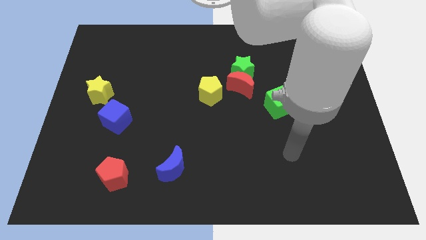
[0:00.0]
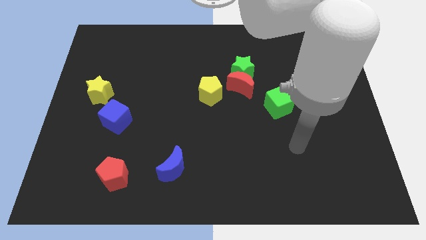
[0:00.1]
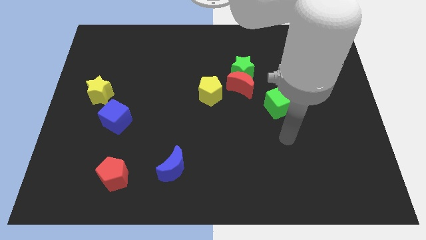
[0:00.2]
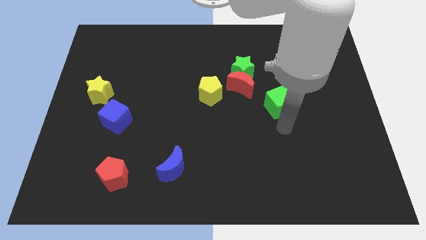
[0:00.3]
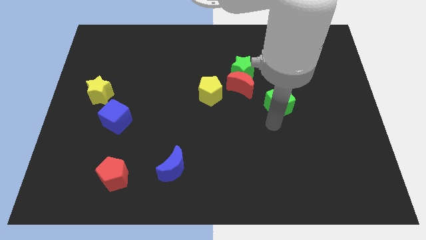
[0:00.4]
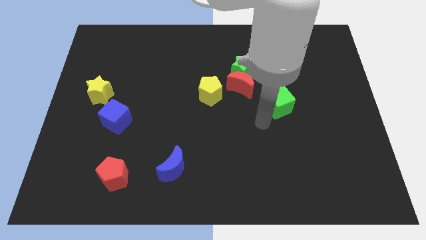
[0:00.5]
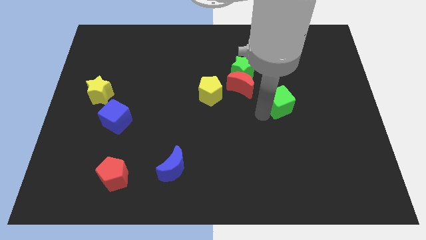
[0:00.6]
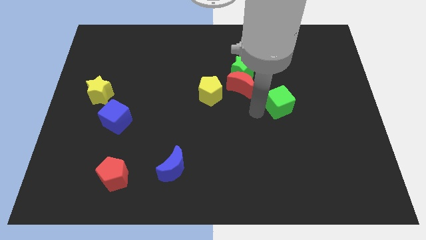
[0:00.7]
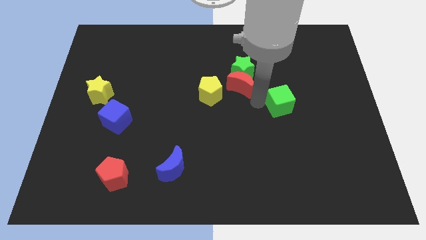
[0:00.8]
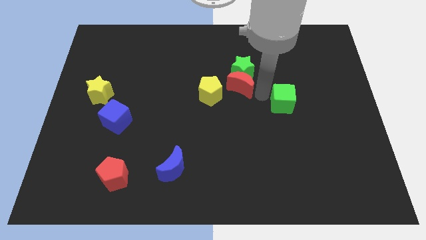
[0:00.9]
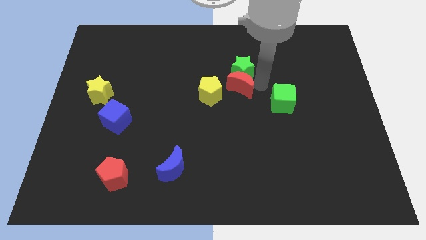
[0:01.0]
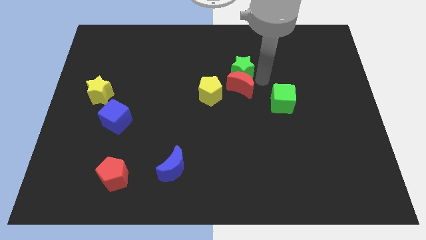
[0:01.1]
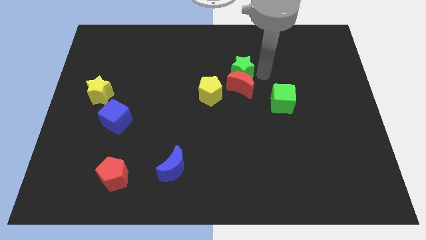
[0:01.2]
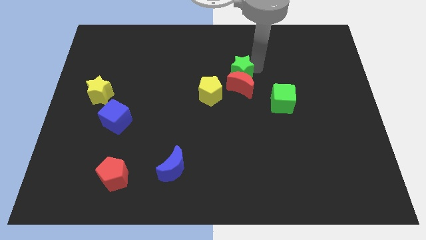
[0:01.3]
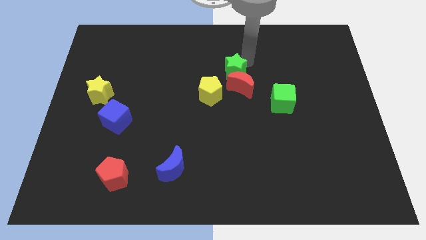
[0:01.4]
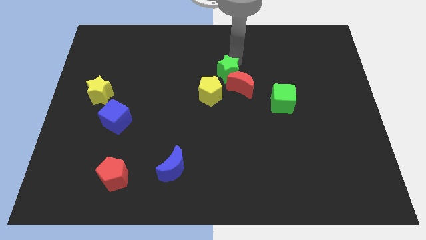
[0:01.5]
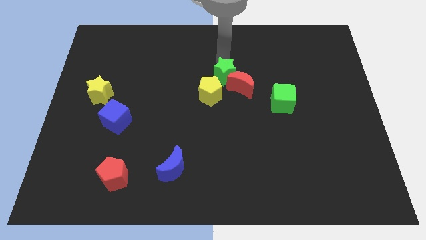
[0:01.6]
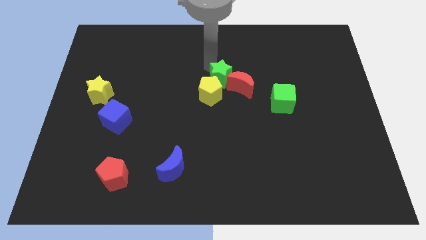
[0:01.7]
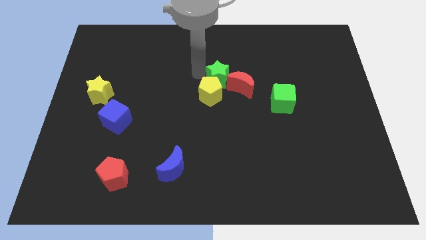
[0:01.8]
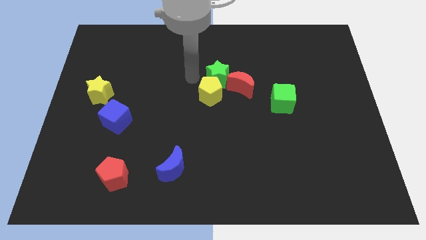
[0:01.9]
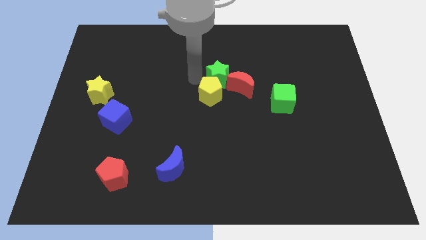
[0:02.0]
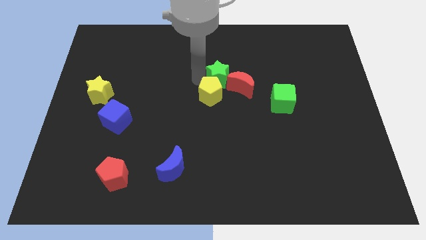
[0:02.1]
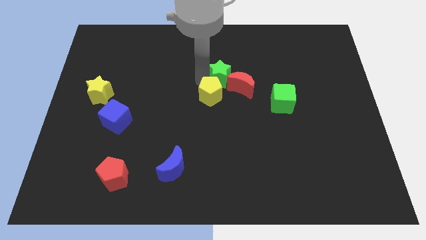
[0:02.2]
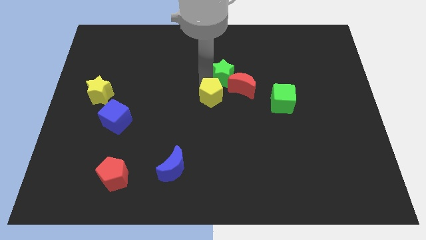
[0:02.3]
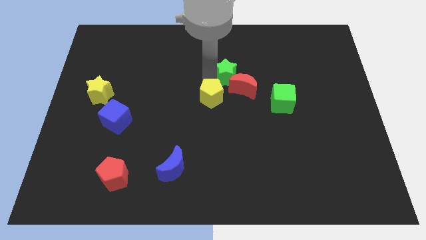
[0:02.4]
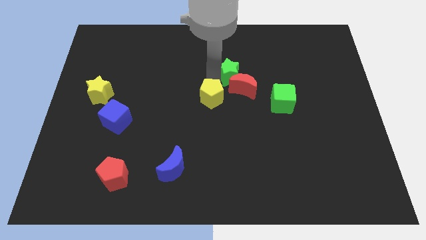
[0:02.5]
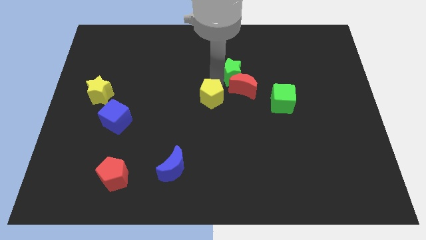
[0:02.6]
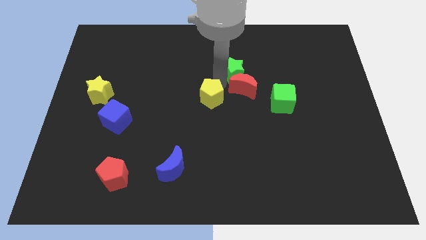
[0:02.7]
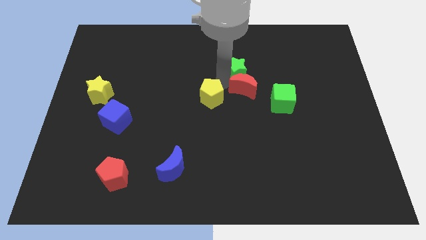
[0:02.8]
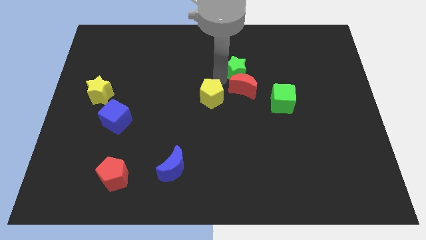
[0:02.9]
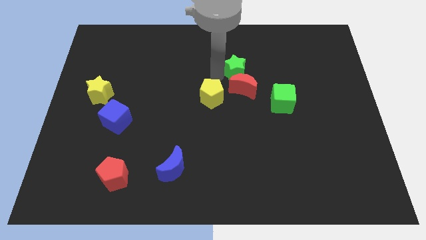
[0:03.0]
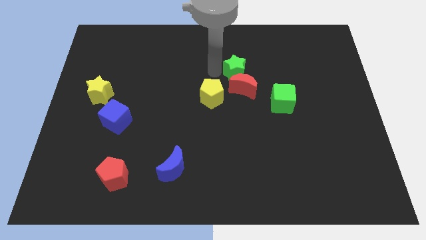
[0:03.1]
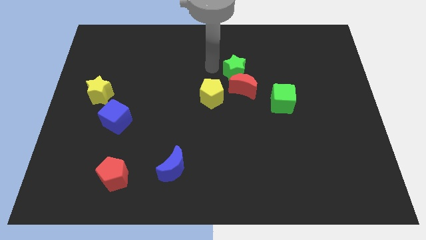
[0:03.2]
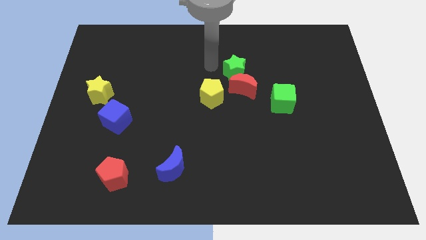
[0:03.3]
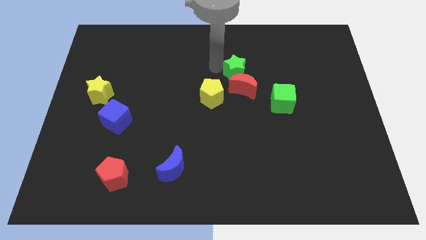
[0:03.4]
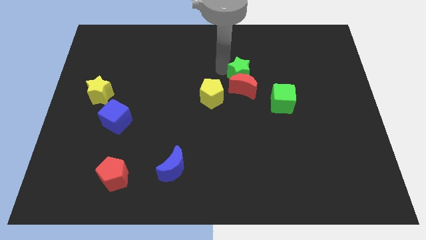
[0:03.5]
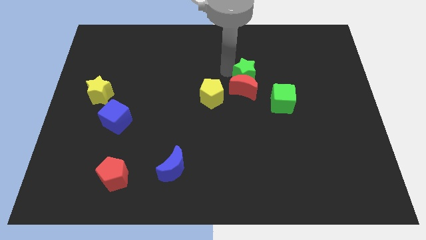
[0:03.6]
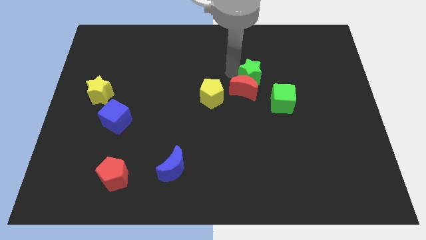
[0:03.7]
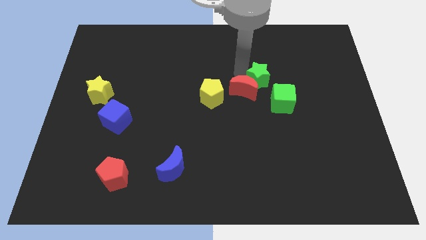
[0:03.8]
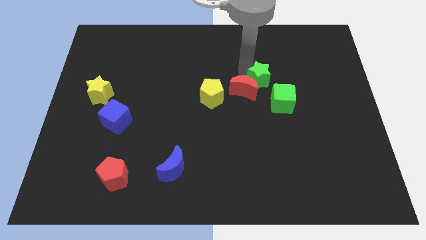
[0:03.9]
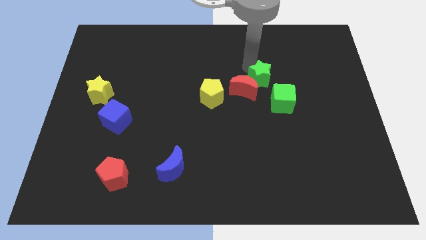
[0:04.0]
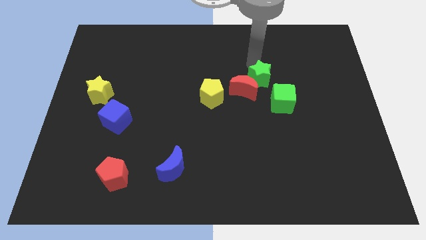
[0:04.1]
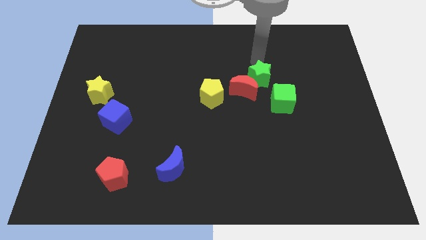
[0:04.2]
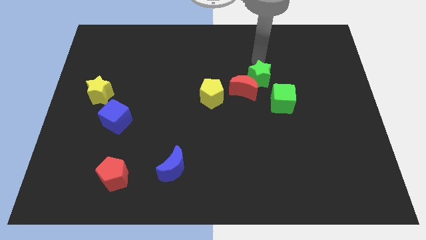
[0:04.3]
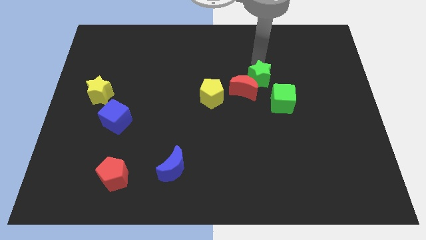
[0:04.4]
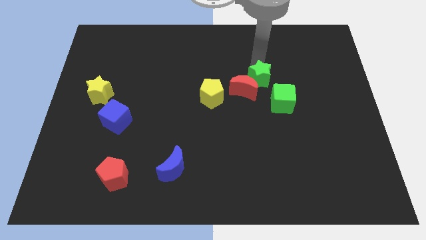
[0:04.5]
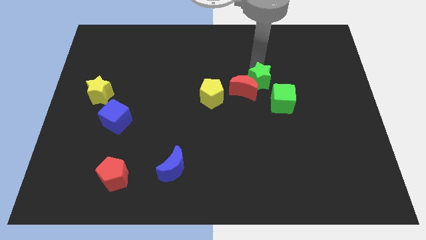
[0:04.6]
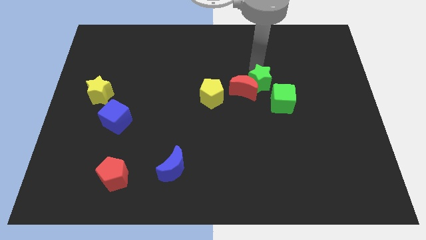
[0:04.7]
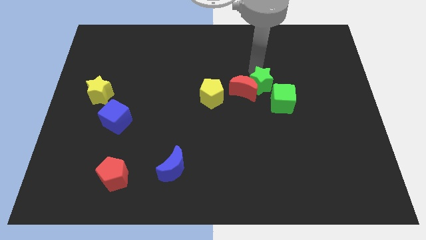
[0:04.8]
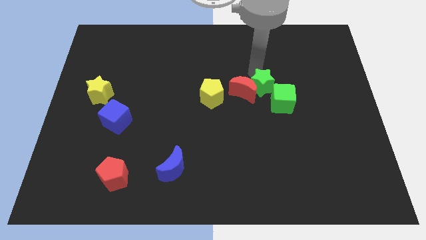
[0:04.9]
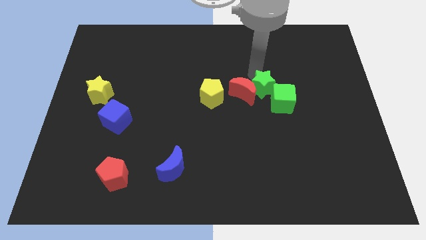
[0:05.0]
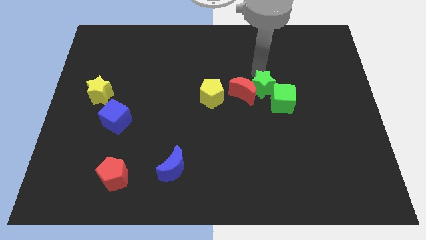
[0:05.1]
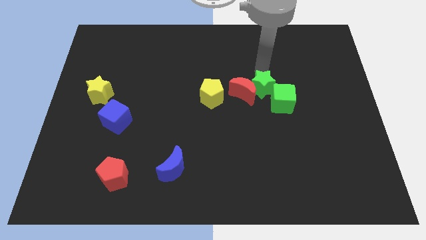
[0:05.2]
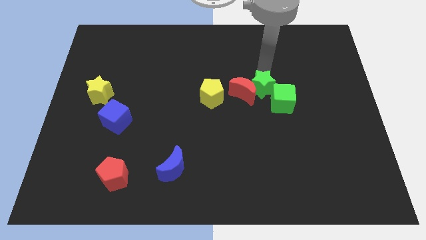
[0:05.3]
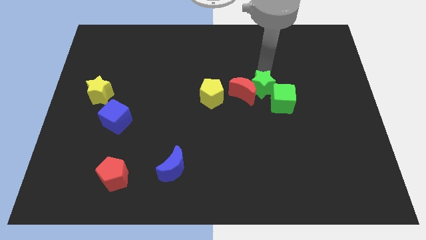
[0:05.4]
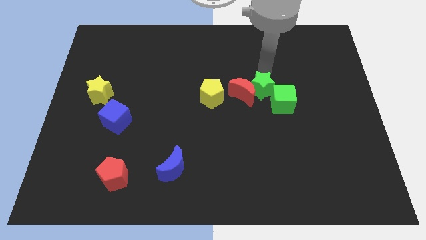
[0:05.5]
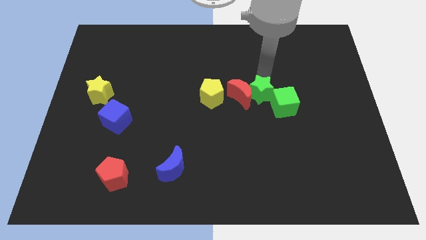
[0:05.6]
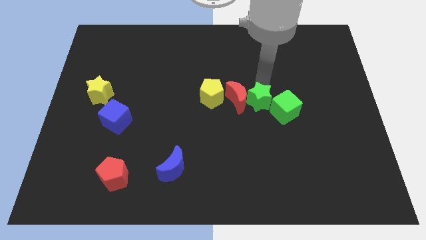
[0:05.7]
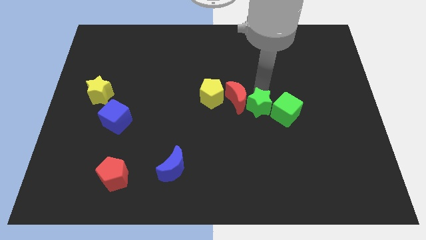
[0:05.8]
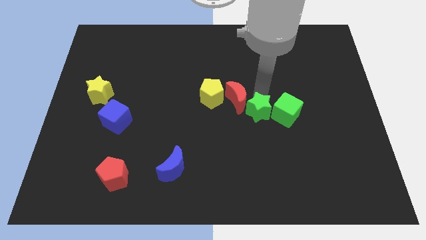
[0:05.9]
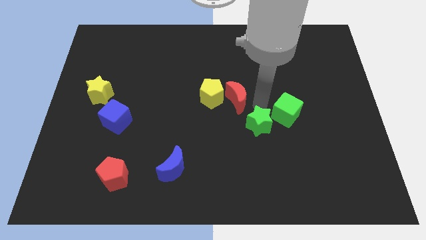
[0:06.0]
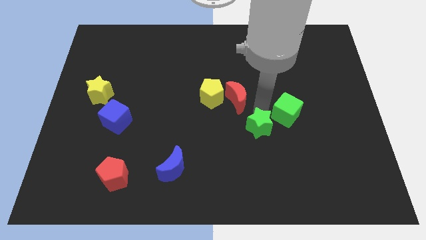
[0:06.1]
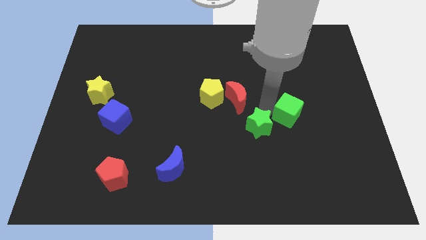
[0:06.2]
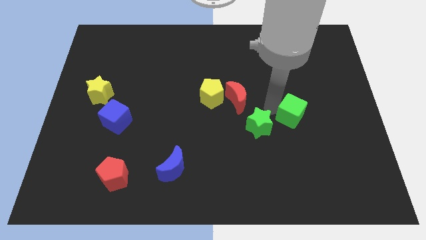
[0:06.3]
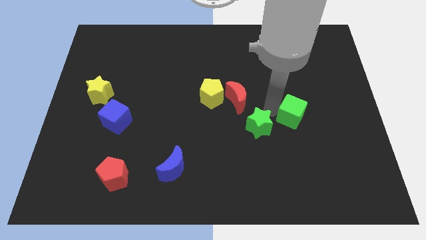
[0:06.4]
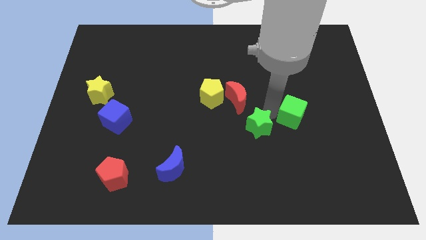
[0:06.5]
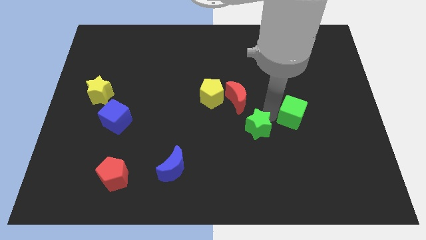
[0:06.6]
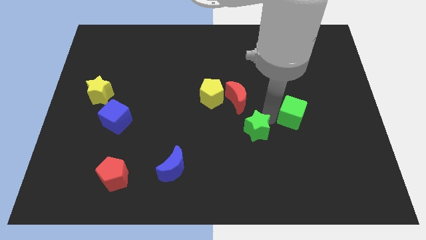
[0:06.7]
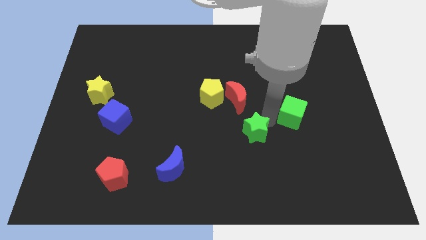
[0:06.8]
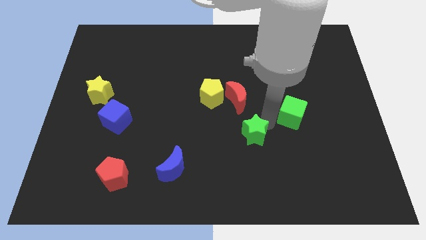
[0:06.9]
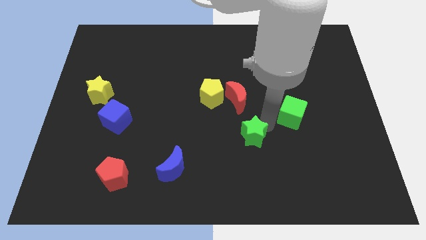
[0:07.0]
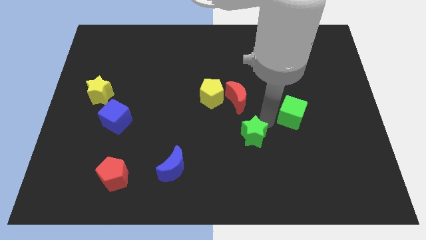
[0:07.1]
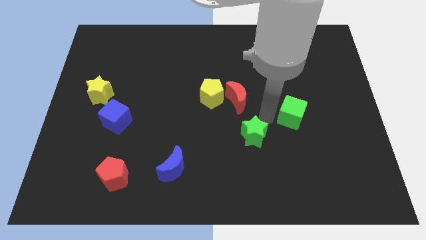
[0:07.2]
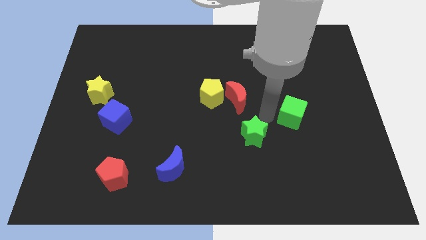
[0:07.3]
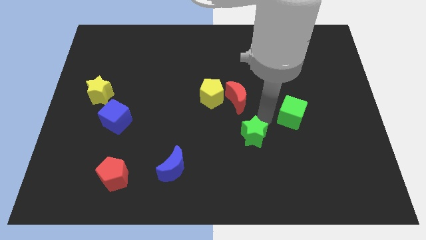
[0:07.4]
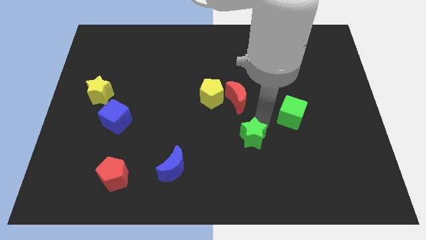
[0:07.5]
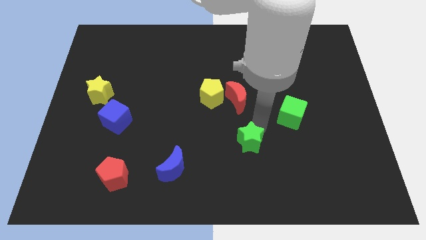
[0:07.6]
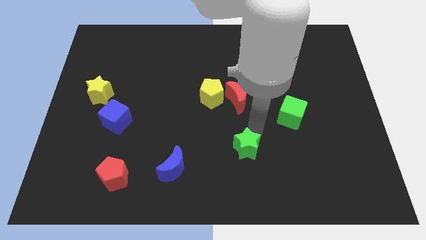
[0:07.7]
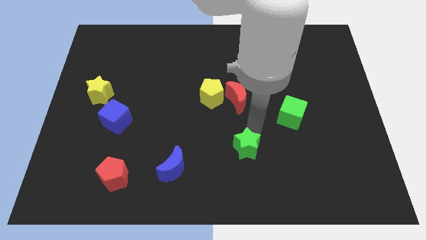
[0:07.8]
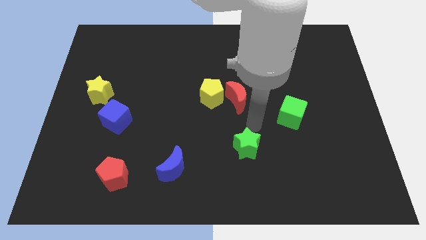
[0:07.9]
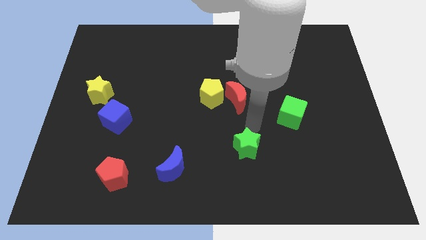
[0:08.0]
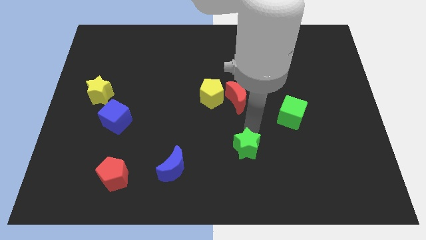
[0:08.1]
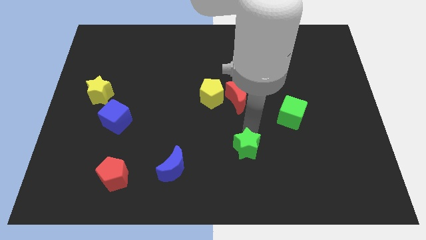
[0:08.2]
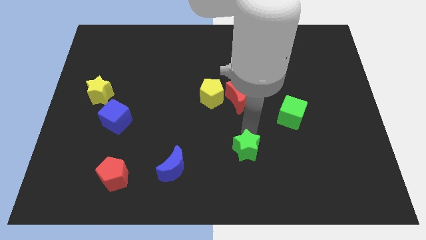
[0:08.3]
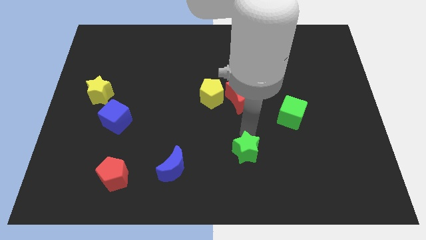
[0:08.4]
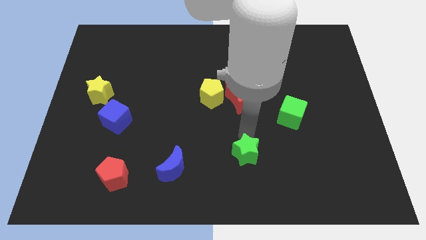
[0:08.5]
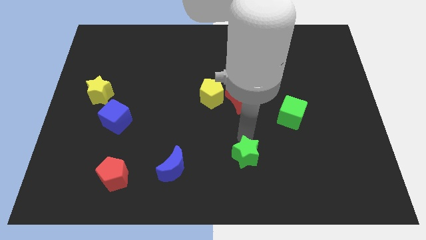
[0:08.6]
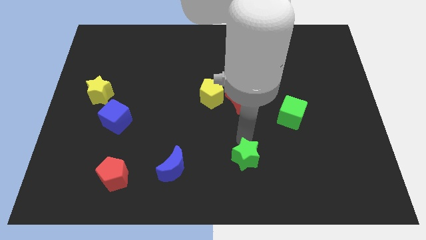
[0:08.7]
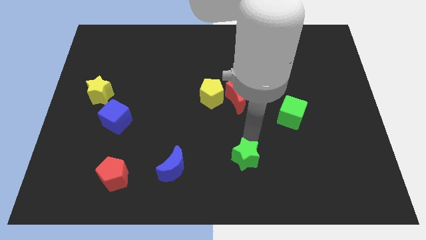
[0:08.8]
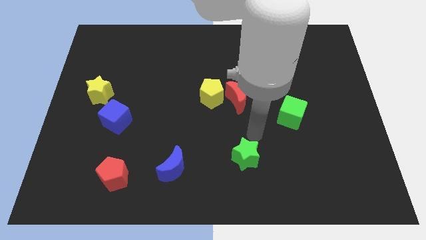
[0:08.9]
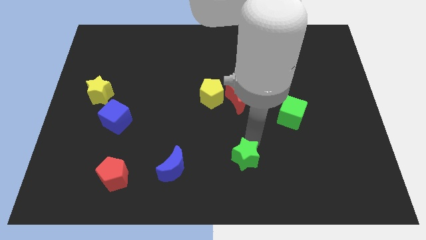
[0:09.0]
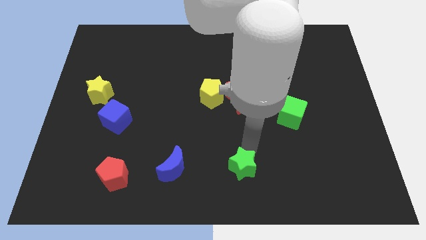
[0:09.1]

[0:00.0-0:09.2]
push the green star to the bottom side
